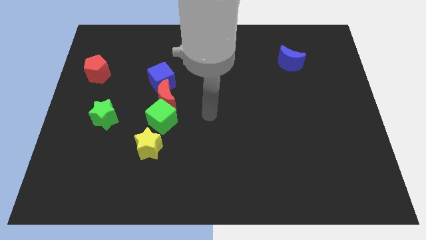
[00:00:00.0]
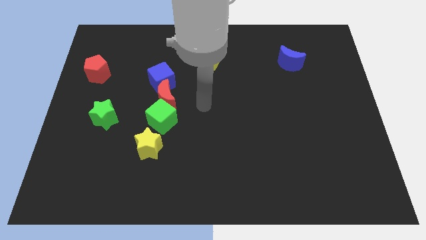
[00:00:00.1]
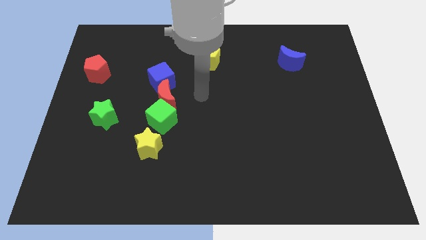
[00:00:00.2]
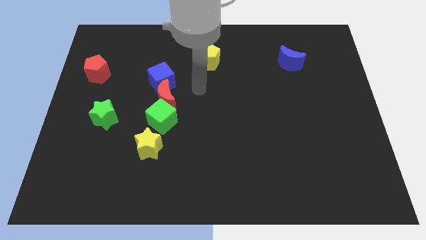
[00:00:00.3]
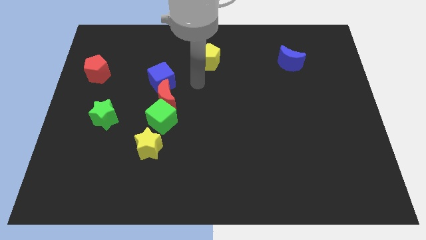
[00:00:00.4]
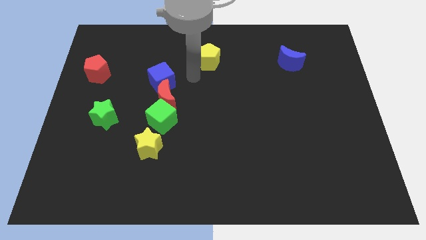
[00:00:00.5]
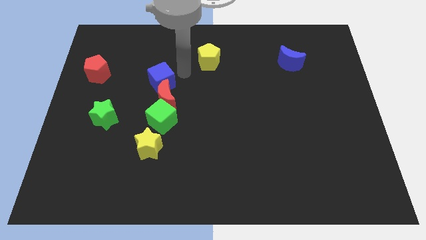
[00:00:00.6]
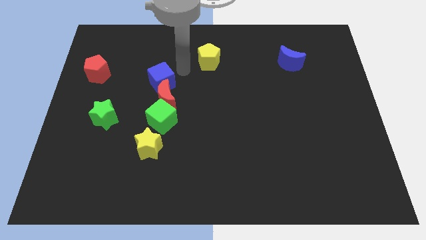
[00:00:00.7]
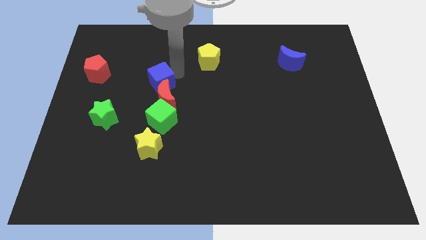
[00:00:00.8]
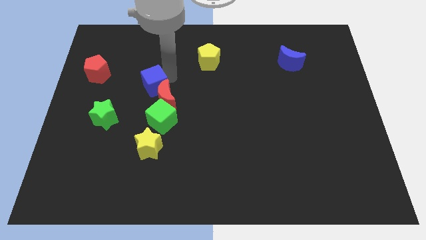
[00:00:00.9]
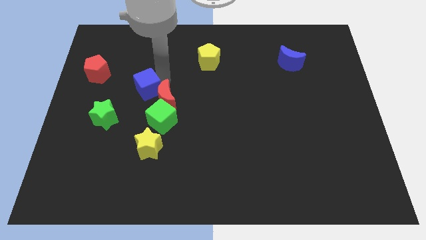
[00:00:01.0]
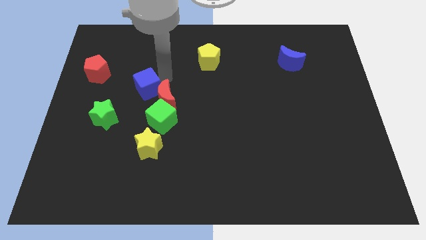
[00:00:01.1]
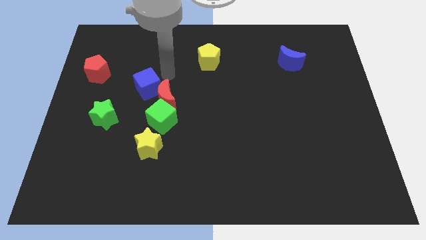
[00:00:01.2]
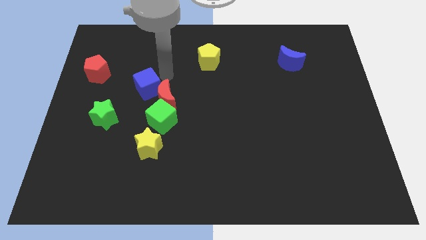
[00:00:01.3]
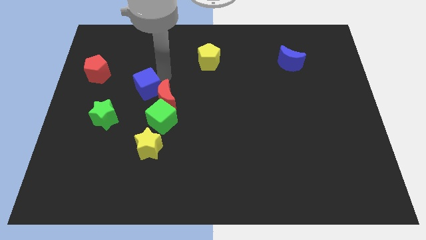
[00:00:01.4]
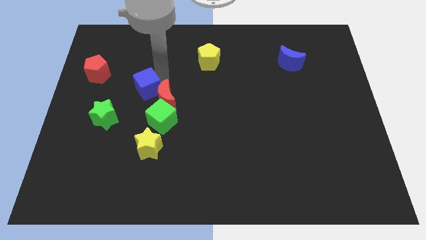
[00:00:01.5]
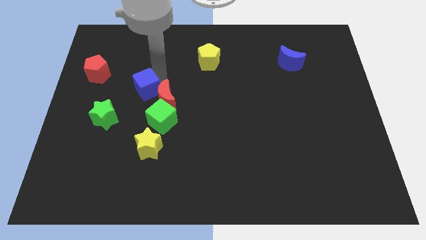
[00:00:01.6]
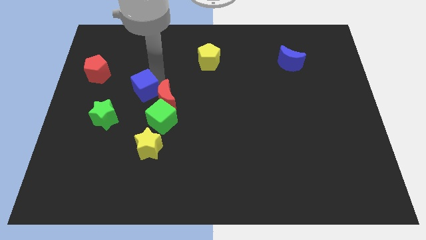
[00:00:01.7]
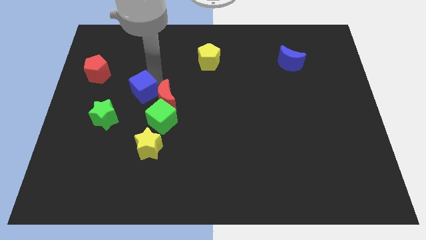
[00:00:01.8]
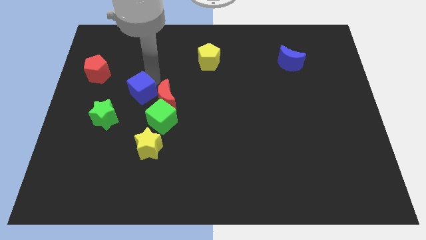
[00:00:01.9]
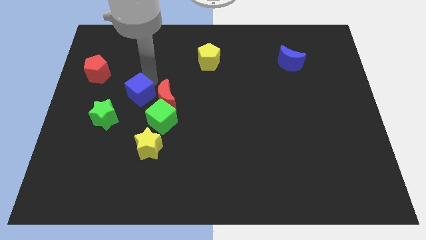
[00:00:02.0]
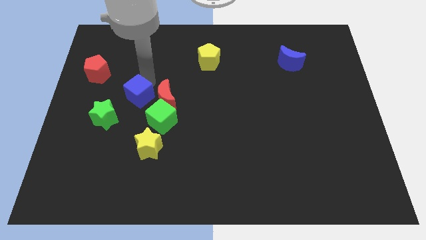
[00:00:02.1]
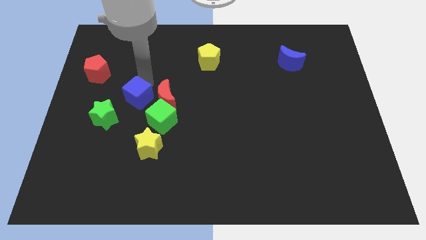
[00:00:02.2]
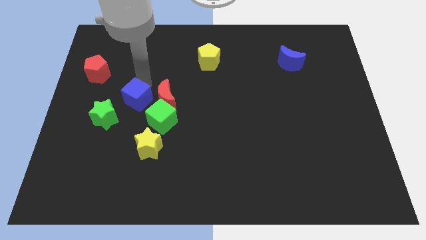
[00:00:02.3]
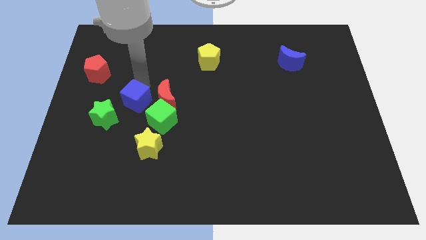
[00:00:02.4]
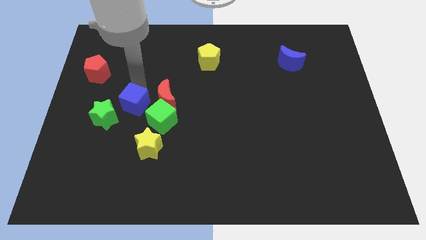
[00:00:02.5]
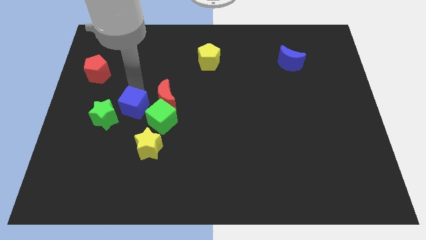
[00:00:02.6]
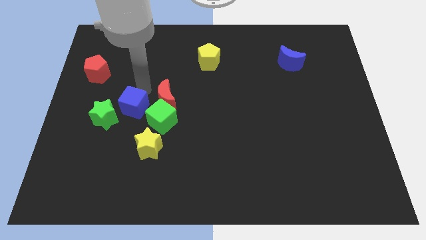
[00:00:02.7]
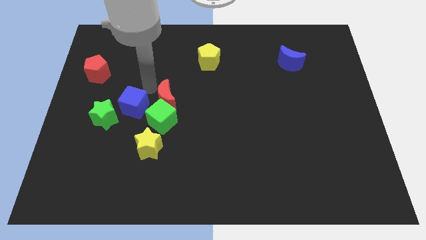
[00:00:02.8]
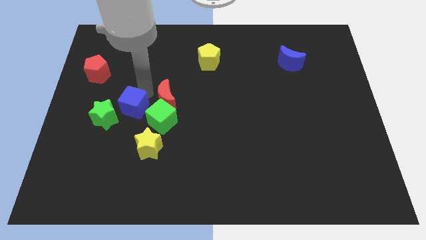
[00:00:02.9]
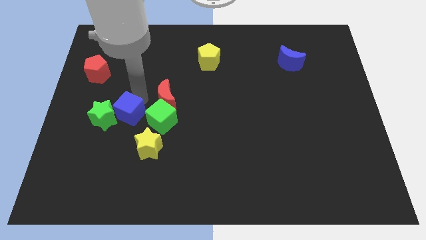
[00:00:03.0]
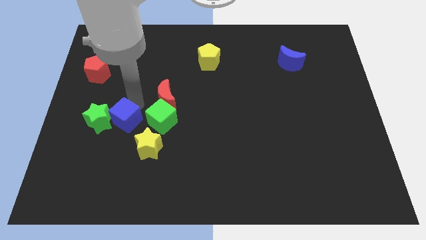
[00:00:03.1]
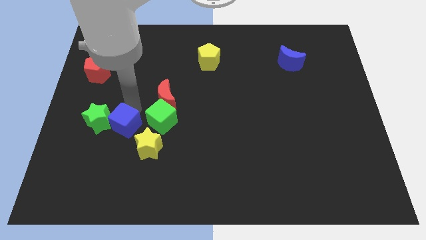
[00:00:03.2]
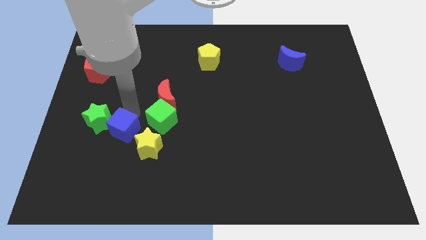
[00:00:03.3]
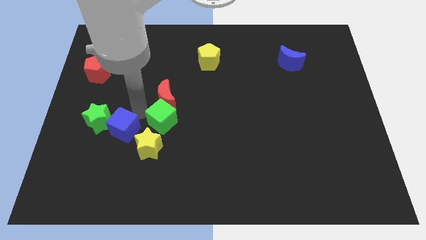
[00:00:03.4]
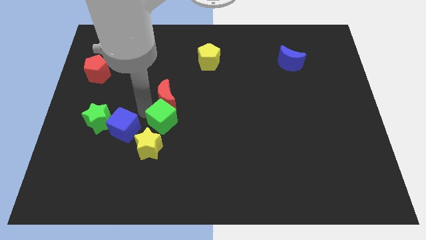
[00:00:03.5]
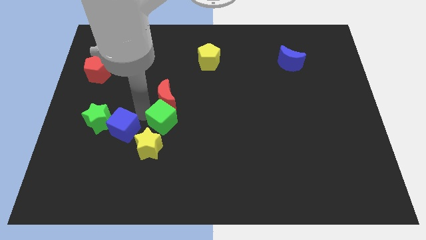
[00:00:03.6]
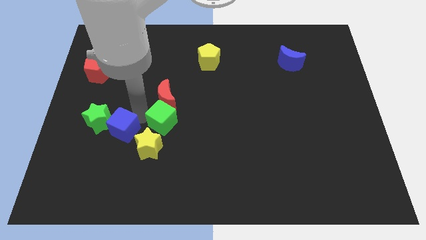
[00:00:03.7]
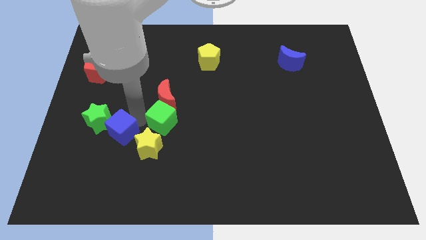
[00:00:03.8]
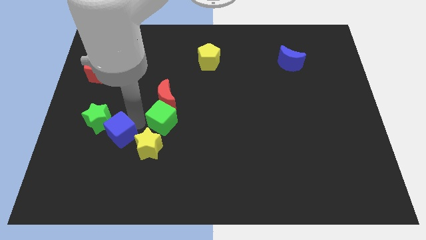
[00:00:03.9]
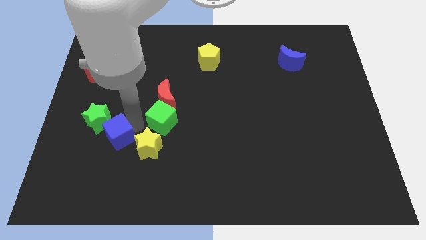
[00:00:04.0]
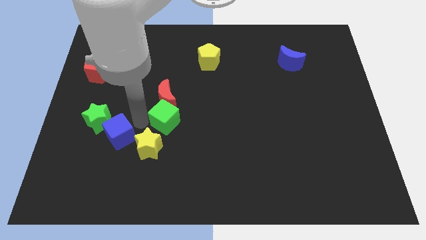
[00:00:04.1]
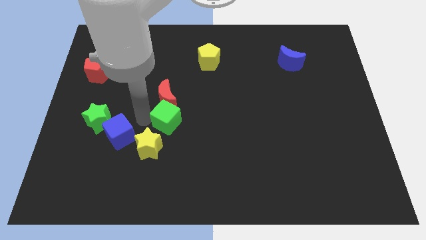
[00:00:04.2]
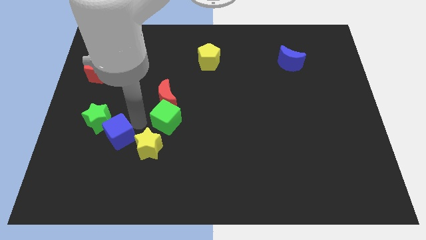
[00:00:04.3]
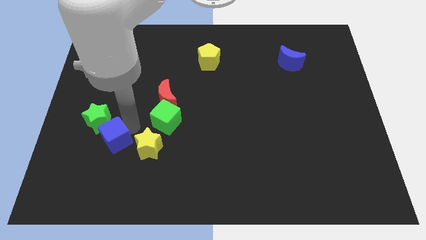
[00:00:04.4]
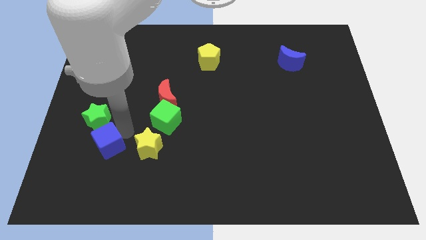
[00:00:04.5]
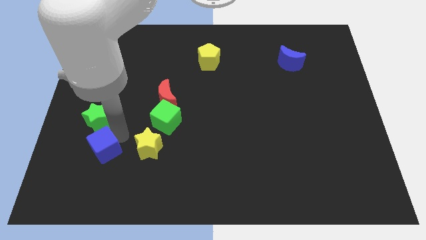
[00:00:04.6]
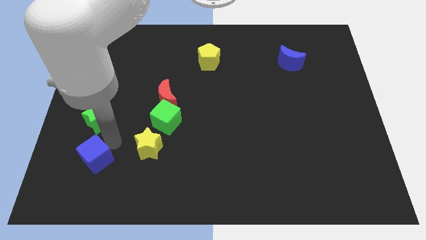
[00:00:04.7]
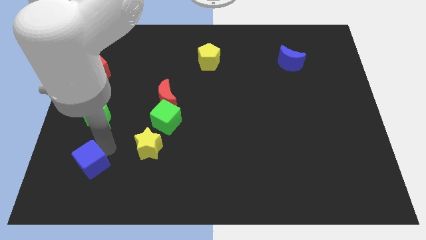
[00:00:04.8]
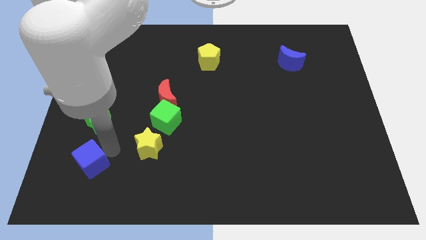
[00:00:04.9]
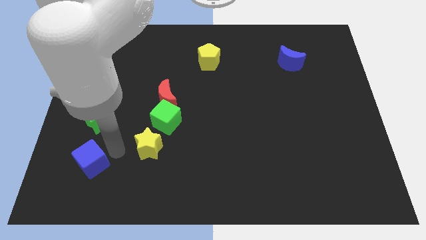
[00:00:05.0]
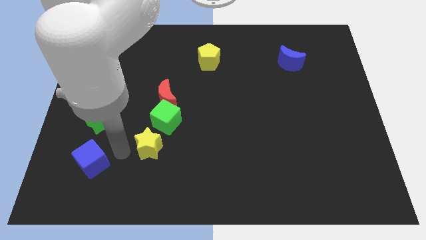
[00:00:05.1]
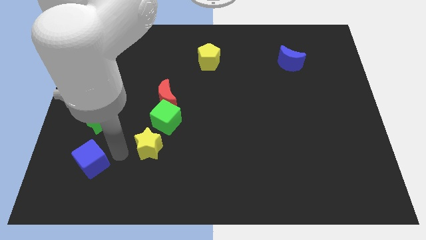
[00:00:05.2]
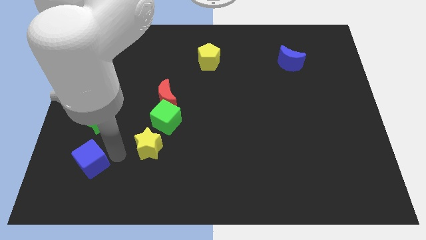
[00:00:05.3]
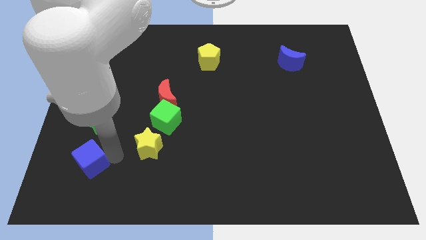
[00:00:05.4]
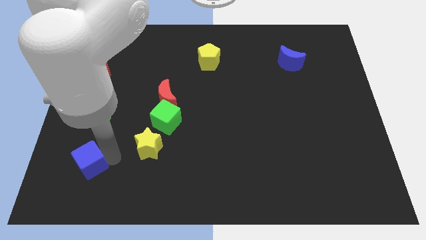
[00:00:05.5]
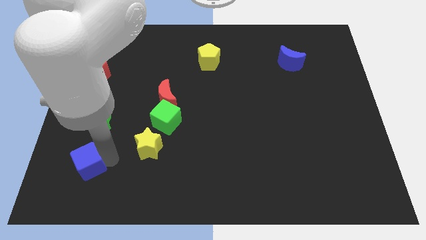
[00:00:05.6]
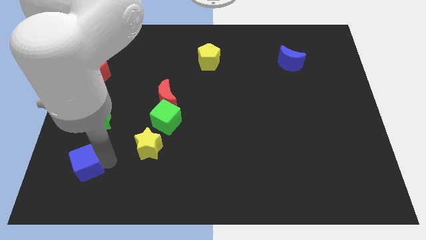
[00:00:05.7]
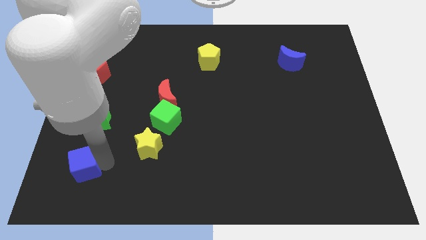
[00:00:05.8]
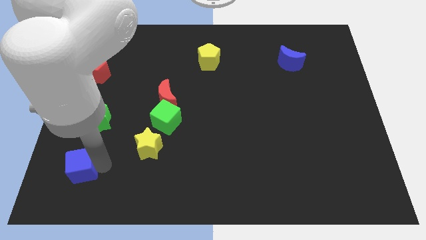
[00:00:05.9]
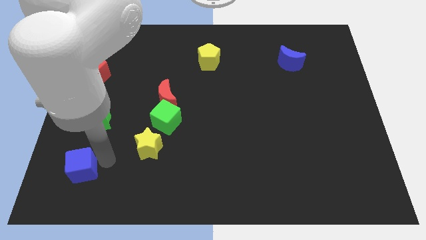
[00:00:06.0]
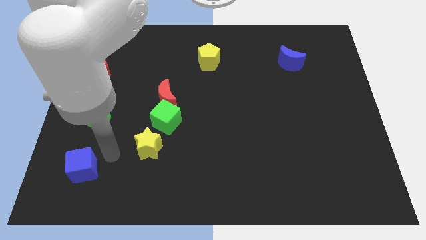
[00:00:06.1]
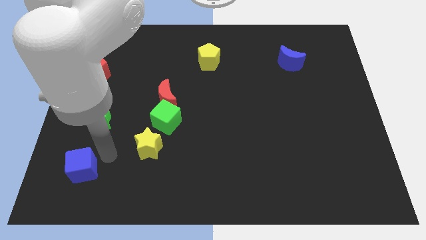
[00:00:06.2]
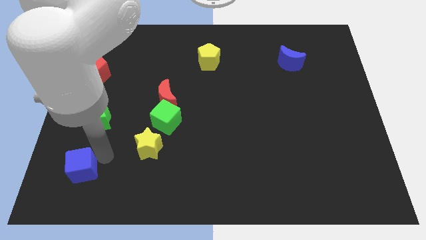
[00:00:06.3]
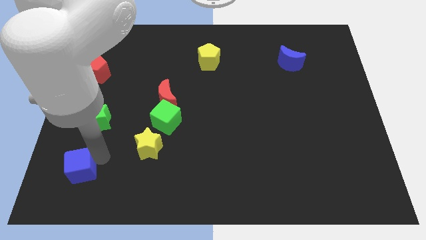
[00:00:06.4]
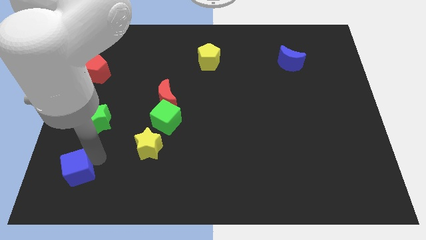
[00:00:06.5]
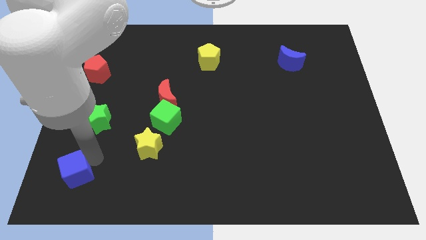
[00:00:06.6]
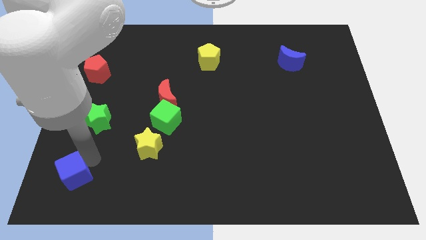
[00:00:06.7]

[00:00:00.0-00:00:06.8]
put the blue cube to the bottom left of the board

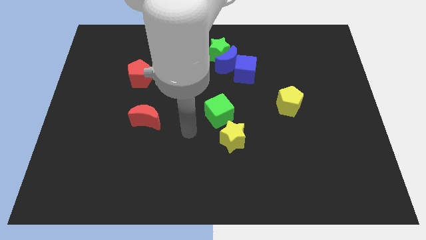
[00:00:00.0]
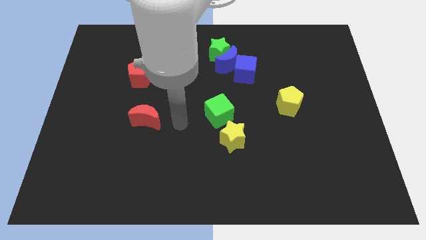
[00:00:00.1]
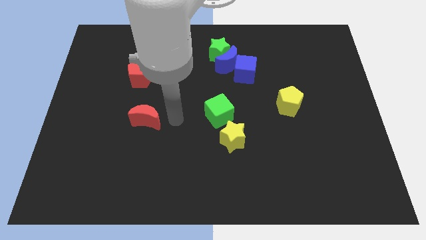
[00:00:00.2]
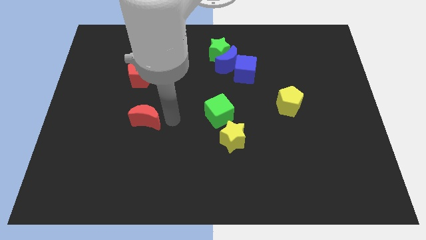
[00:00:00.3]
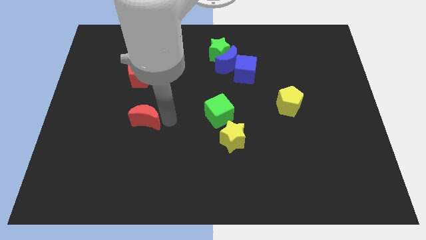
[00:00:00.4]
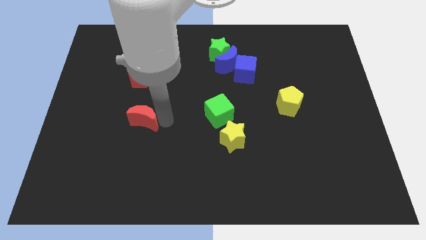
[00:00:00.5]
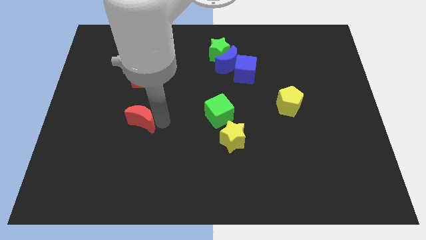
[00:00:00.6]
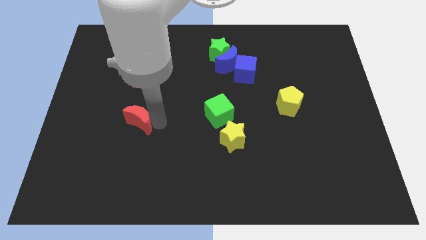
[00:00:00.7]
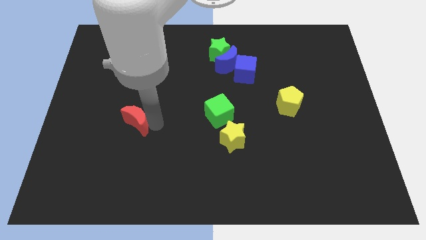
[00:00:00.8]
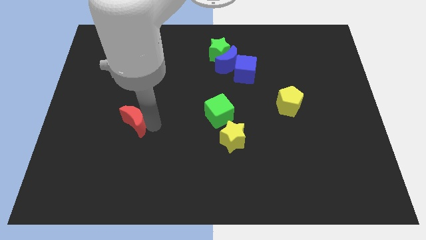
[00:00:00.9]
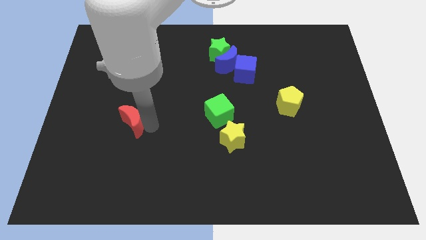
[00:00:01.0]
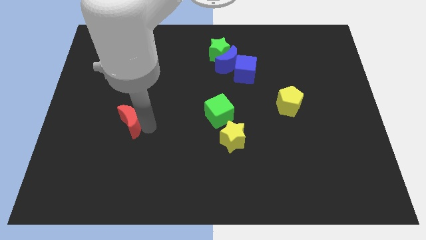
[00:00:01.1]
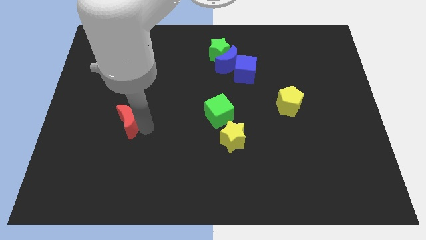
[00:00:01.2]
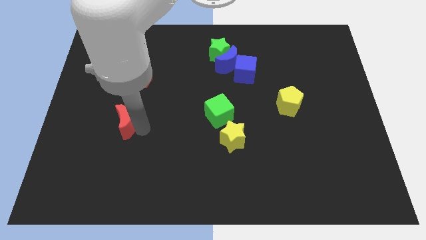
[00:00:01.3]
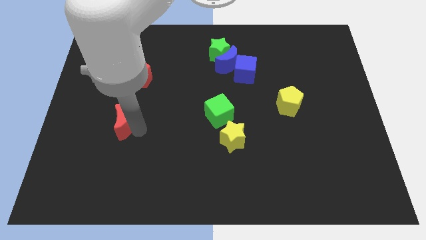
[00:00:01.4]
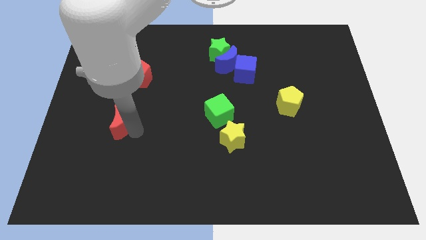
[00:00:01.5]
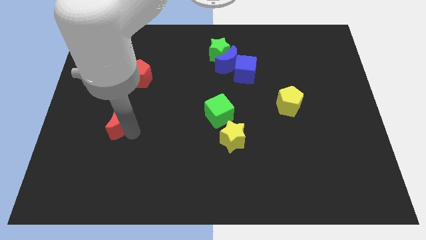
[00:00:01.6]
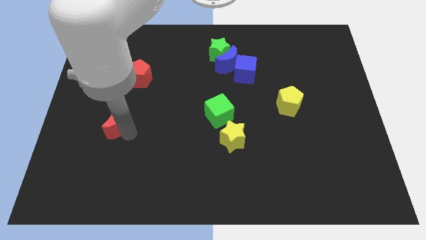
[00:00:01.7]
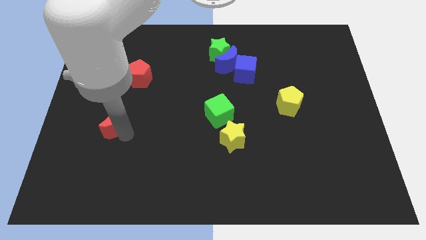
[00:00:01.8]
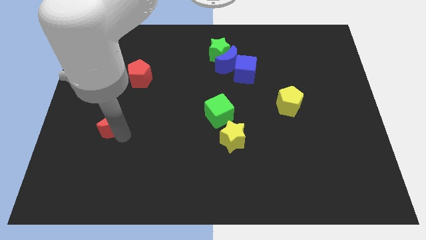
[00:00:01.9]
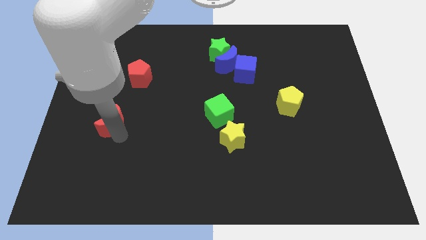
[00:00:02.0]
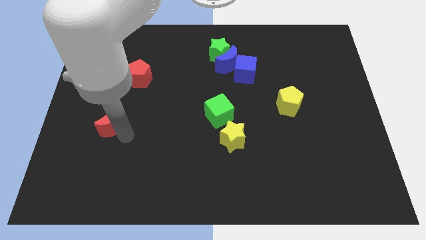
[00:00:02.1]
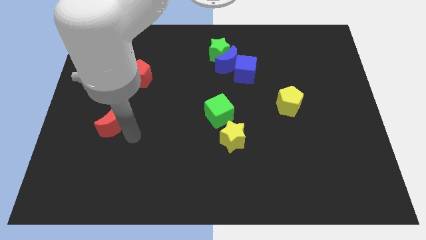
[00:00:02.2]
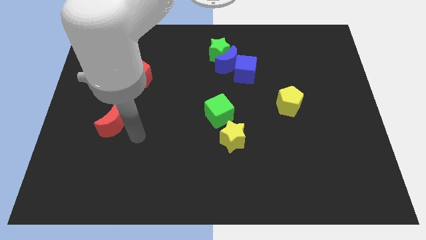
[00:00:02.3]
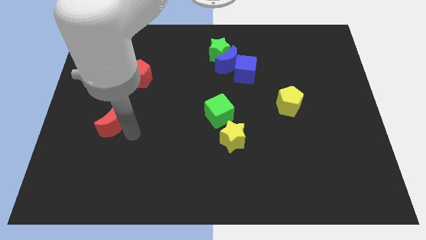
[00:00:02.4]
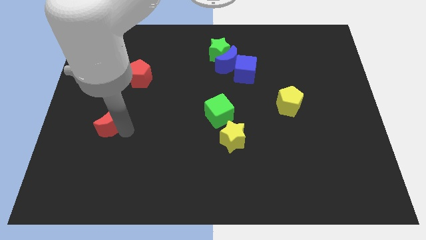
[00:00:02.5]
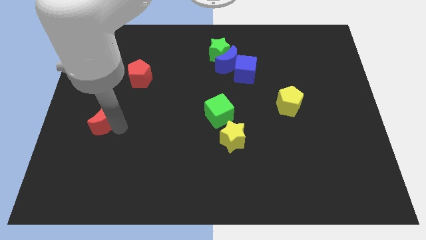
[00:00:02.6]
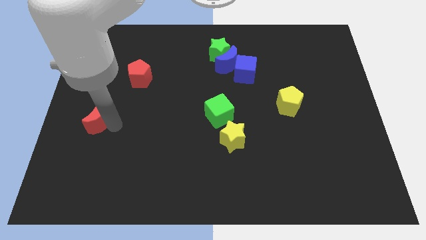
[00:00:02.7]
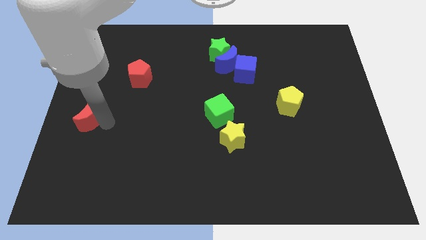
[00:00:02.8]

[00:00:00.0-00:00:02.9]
push the red moon to the left side
